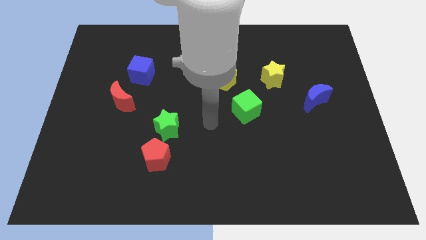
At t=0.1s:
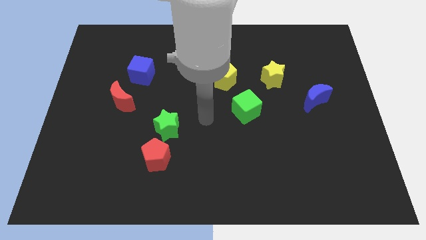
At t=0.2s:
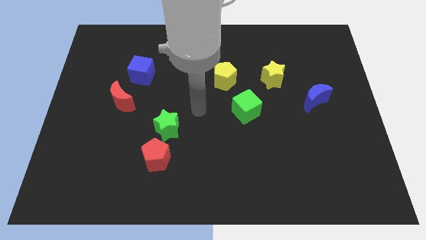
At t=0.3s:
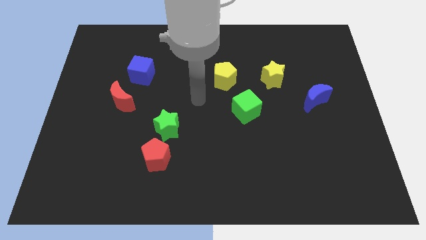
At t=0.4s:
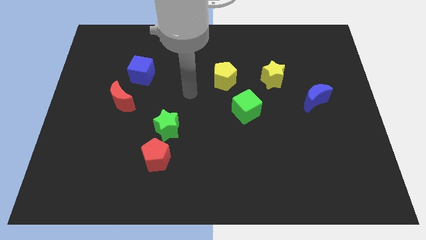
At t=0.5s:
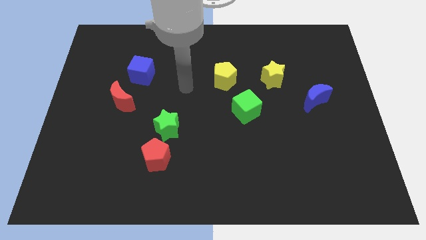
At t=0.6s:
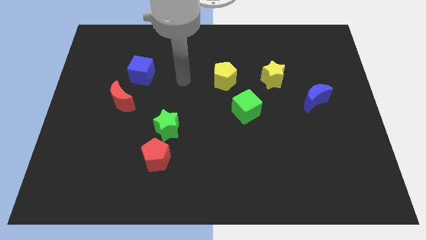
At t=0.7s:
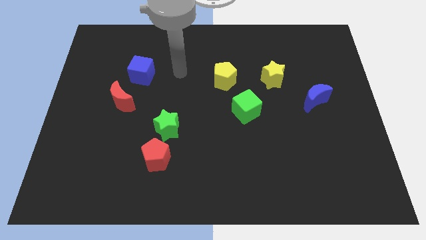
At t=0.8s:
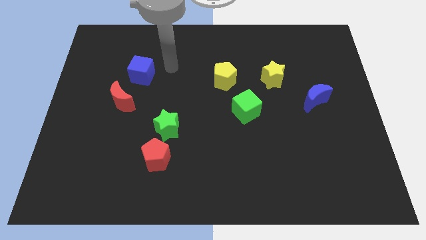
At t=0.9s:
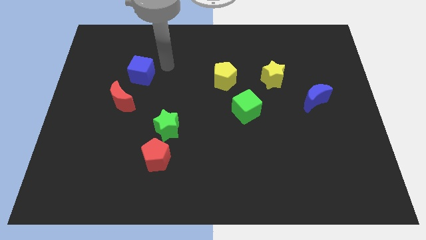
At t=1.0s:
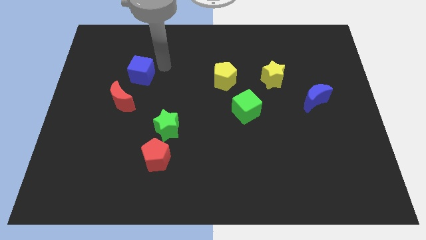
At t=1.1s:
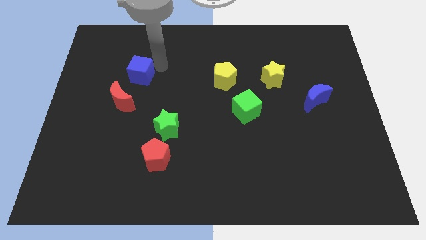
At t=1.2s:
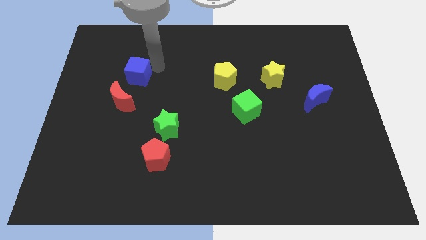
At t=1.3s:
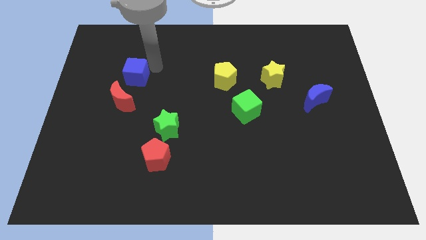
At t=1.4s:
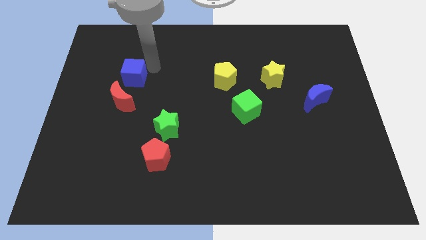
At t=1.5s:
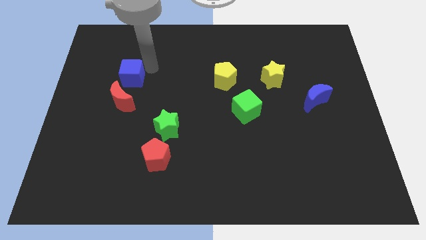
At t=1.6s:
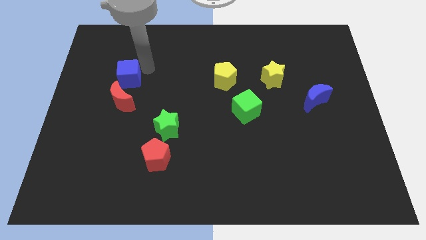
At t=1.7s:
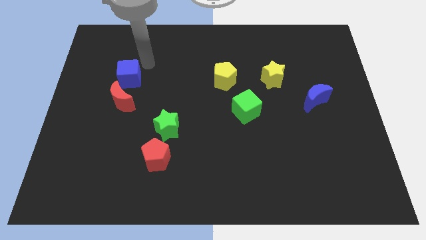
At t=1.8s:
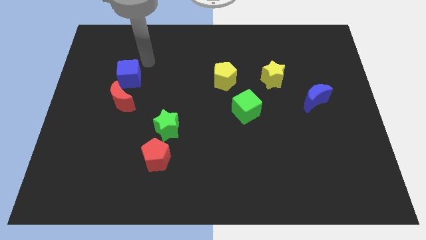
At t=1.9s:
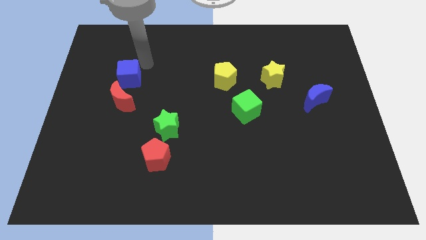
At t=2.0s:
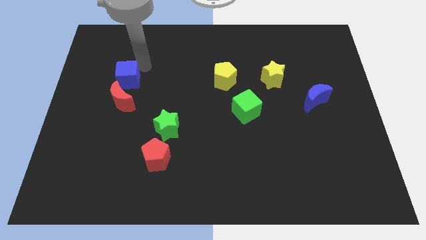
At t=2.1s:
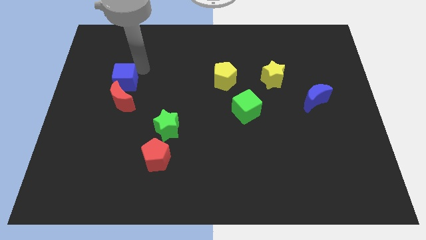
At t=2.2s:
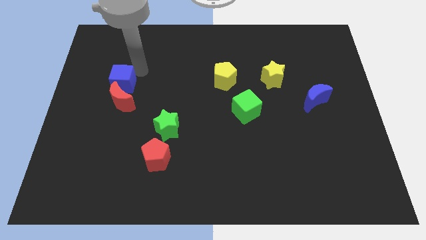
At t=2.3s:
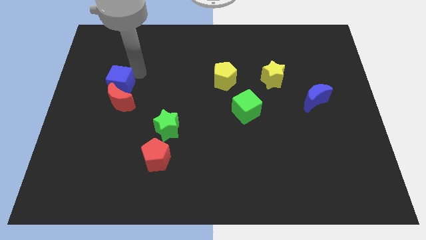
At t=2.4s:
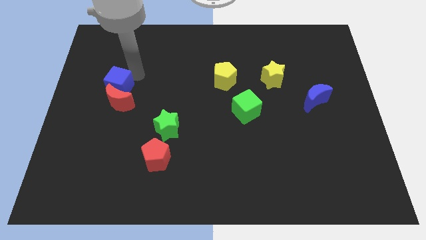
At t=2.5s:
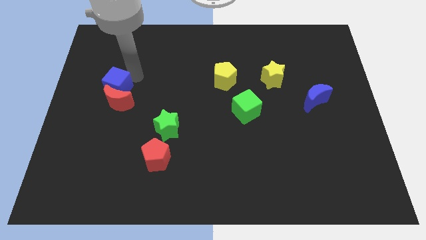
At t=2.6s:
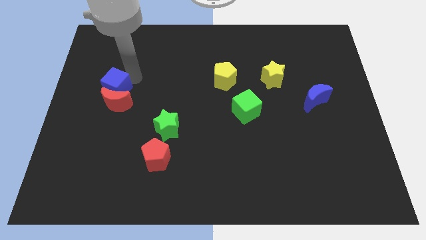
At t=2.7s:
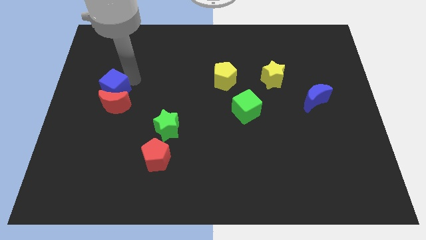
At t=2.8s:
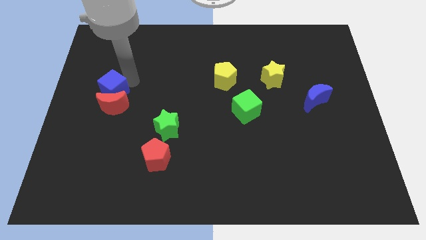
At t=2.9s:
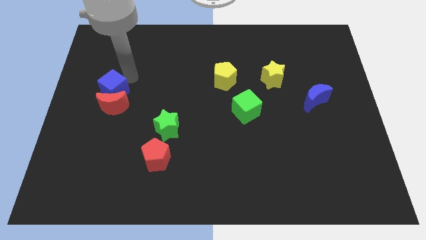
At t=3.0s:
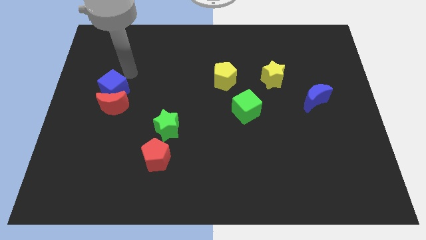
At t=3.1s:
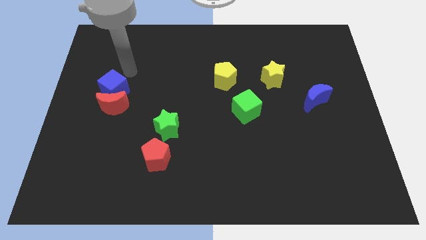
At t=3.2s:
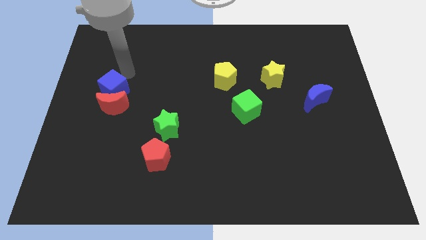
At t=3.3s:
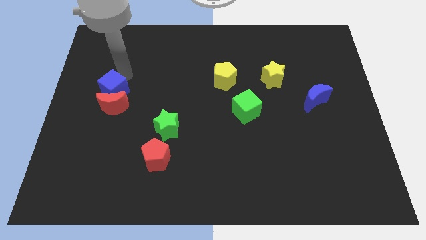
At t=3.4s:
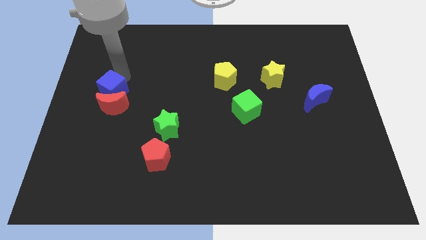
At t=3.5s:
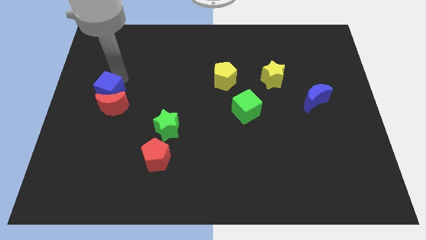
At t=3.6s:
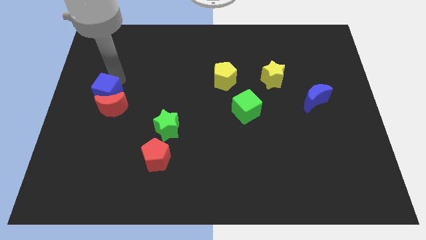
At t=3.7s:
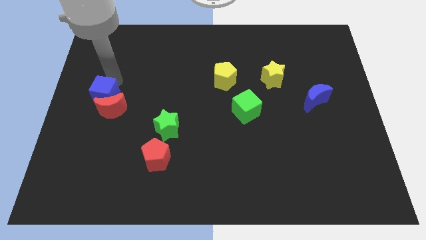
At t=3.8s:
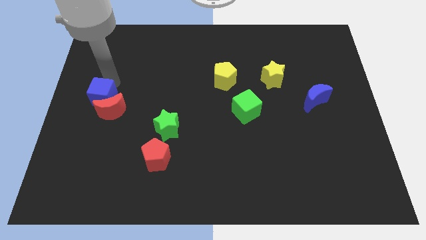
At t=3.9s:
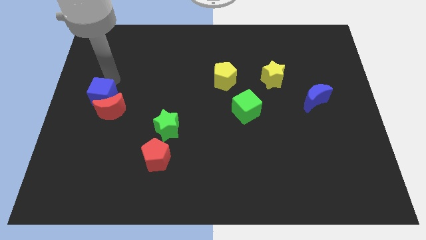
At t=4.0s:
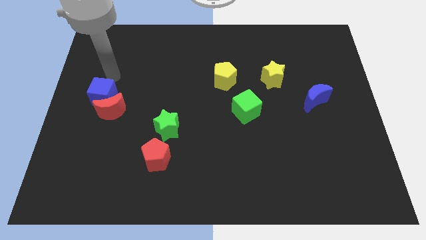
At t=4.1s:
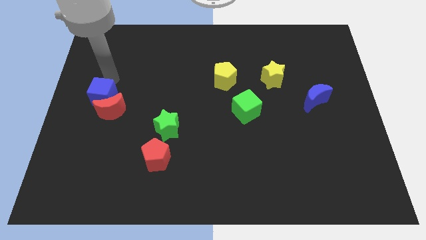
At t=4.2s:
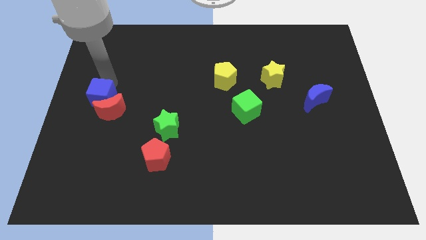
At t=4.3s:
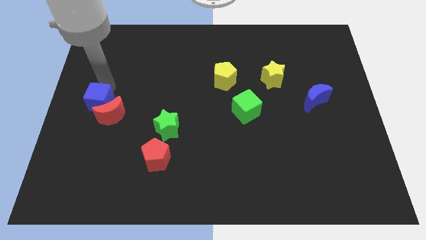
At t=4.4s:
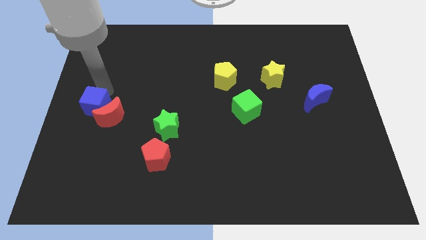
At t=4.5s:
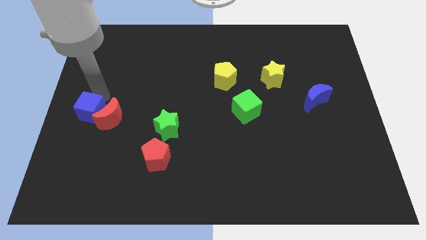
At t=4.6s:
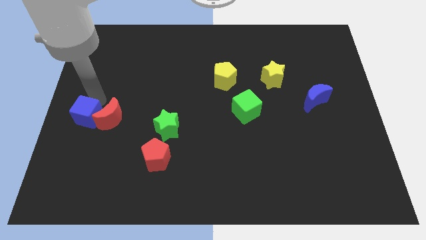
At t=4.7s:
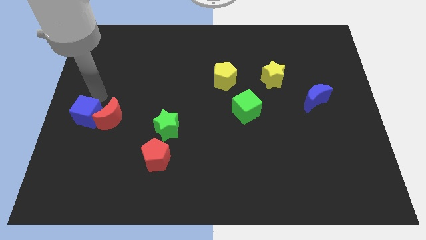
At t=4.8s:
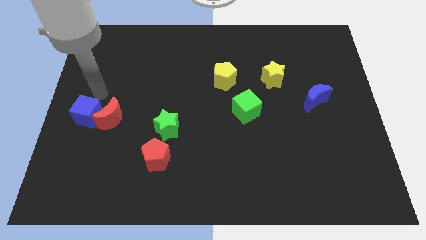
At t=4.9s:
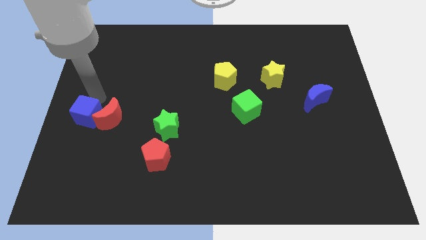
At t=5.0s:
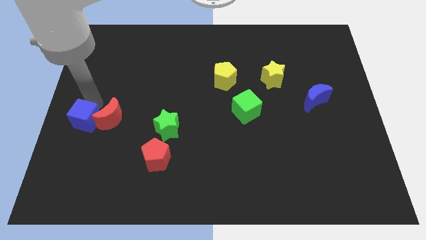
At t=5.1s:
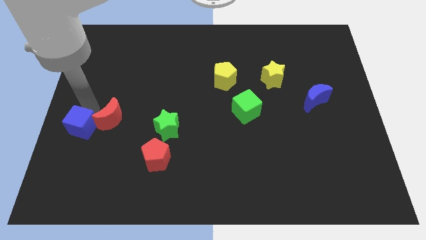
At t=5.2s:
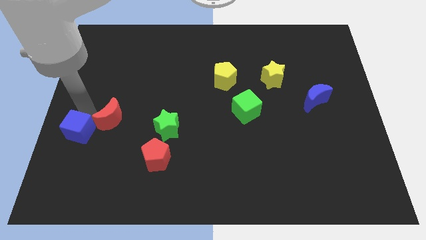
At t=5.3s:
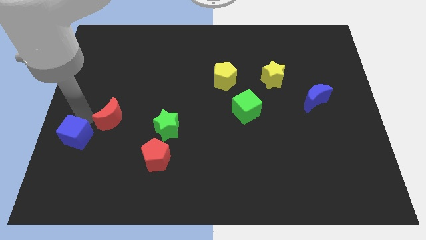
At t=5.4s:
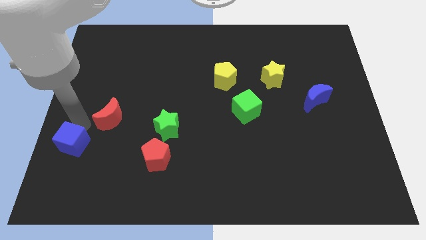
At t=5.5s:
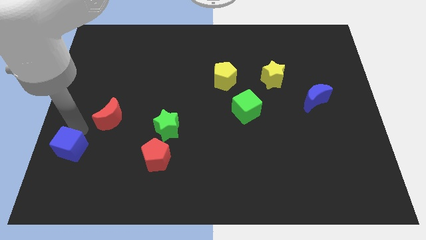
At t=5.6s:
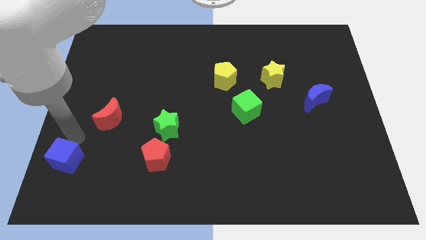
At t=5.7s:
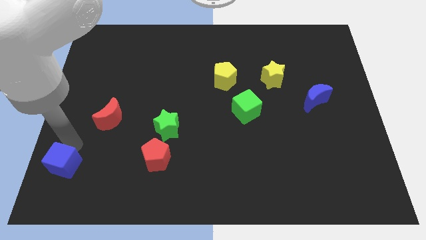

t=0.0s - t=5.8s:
slide the blue cube to the bottom left
